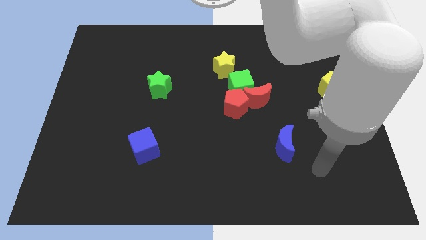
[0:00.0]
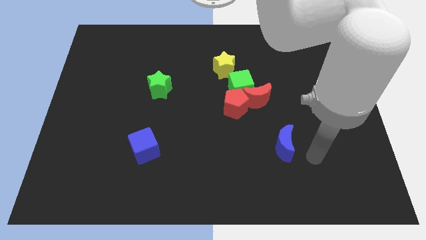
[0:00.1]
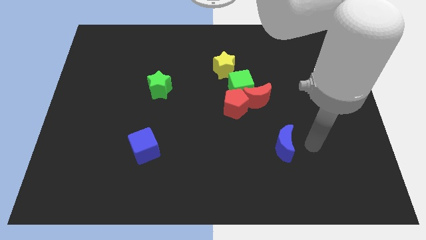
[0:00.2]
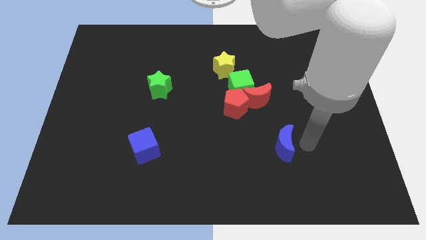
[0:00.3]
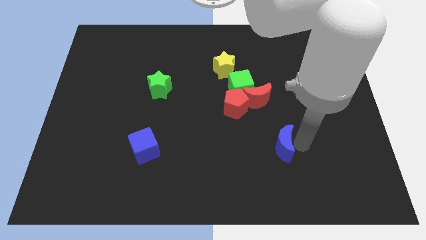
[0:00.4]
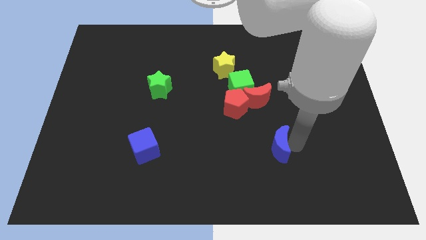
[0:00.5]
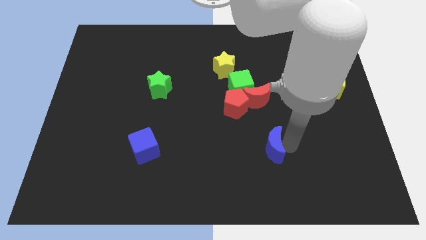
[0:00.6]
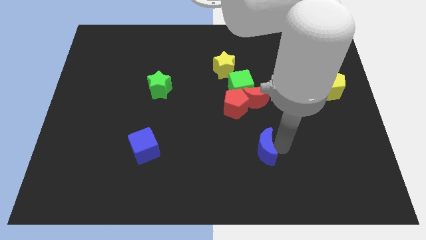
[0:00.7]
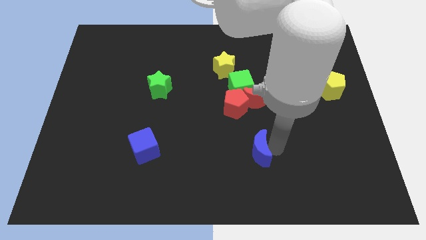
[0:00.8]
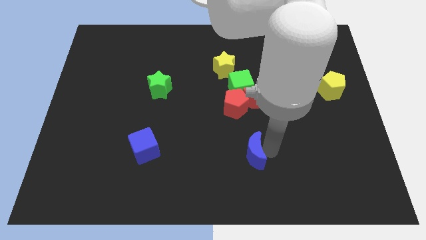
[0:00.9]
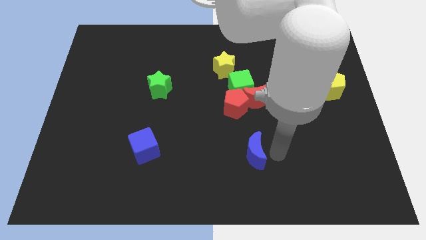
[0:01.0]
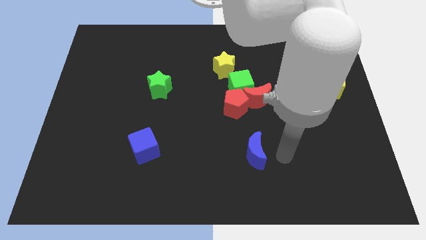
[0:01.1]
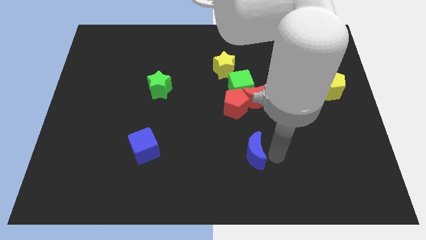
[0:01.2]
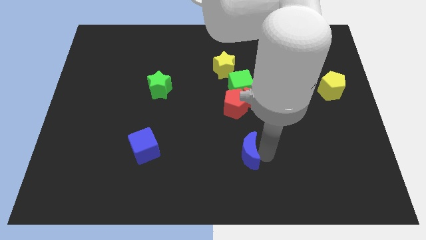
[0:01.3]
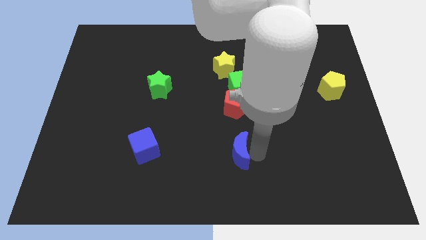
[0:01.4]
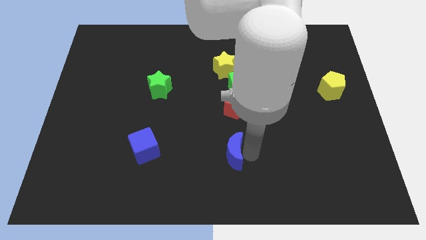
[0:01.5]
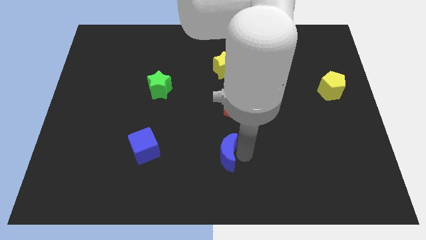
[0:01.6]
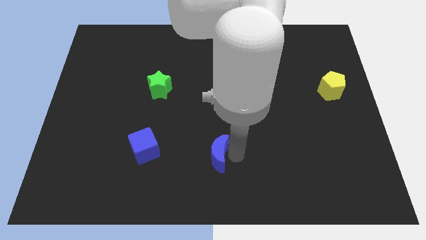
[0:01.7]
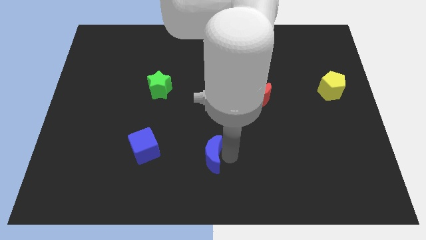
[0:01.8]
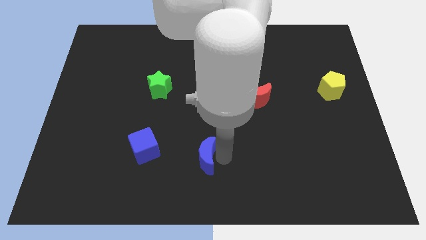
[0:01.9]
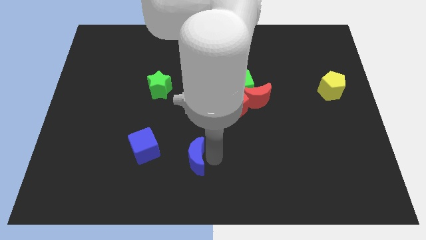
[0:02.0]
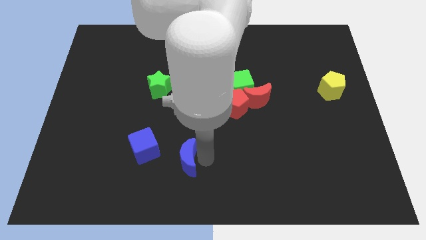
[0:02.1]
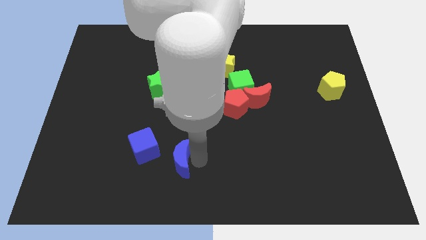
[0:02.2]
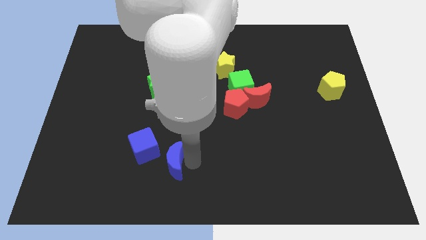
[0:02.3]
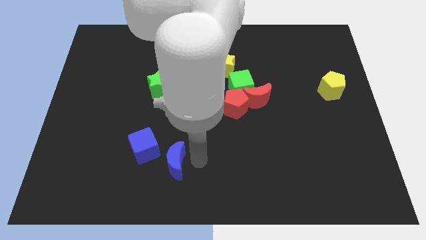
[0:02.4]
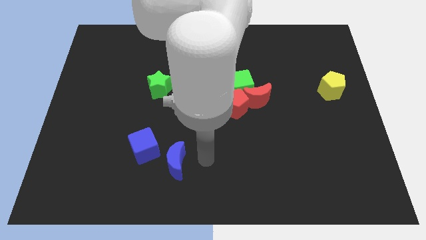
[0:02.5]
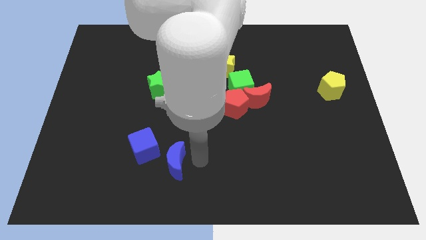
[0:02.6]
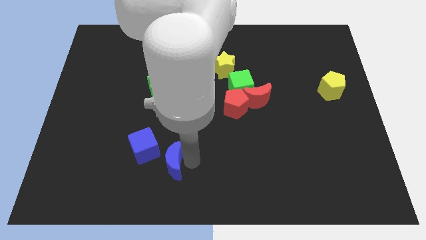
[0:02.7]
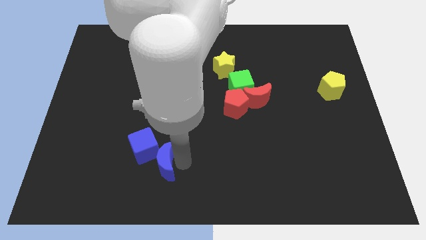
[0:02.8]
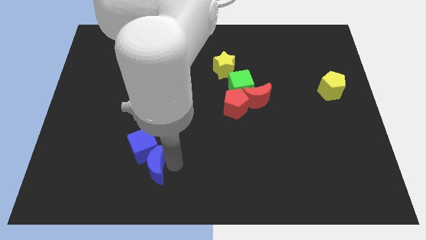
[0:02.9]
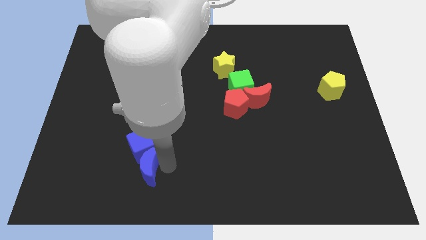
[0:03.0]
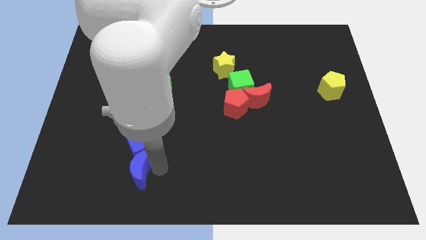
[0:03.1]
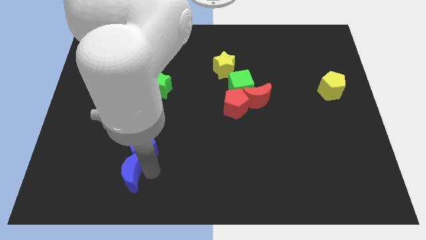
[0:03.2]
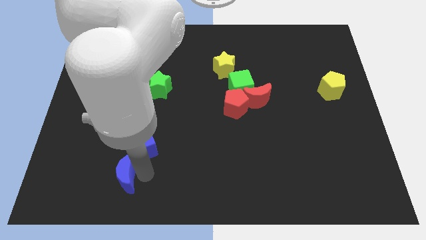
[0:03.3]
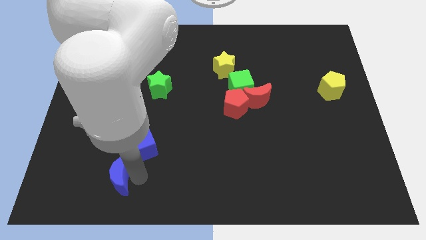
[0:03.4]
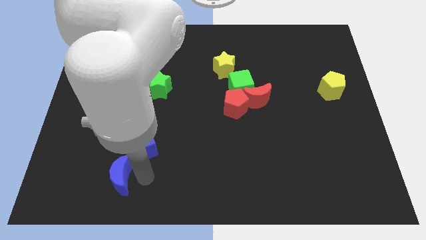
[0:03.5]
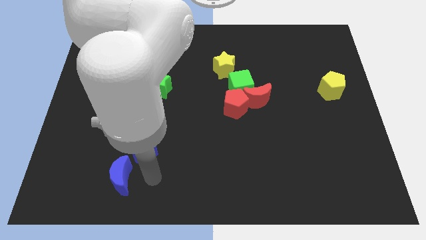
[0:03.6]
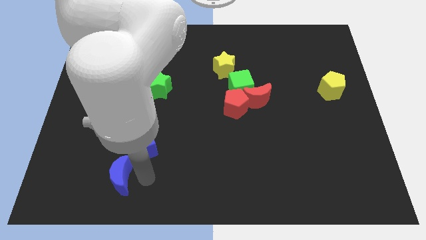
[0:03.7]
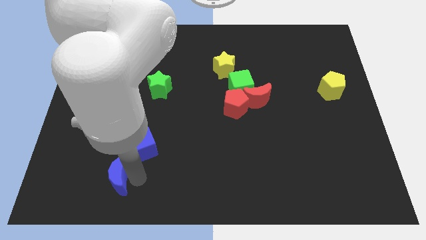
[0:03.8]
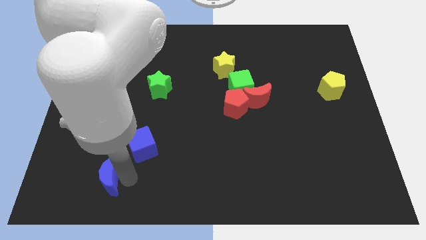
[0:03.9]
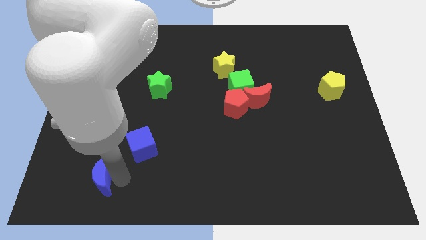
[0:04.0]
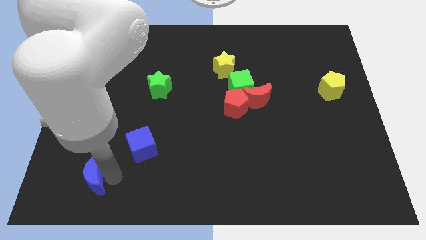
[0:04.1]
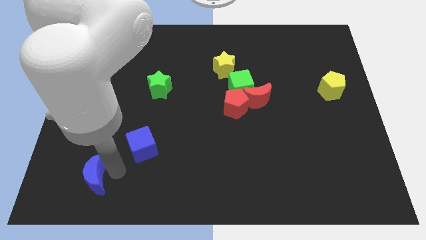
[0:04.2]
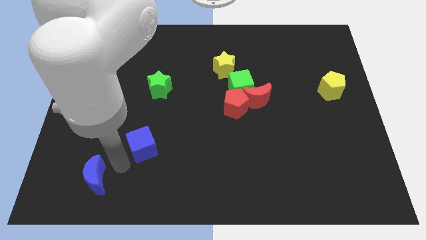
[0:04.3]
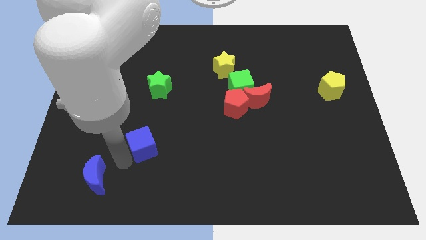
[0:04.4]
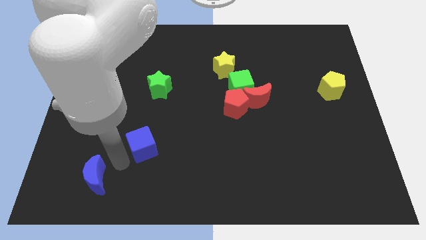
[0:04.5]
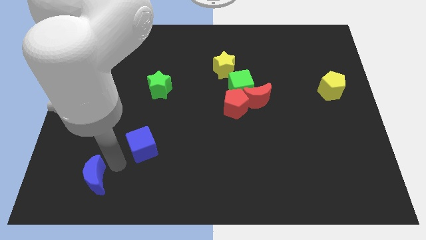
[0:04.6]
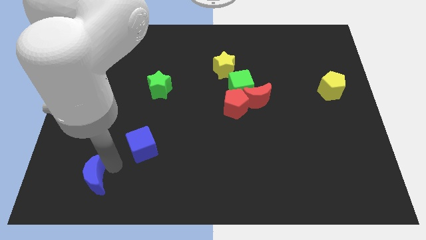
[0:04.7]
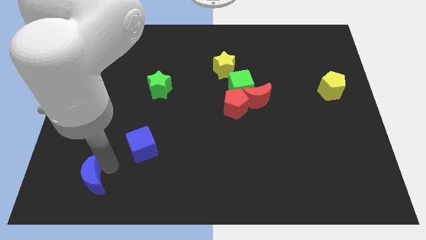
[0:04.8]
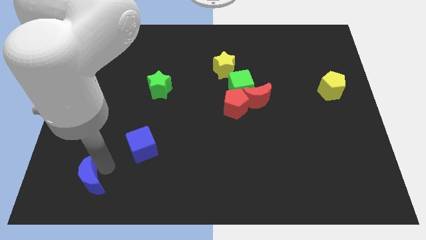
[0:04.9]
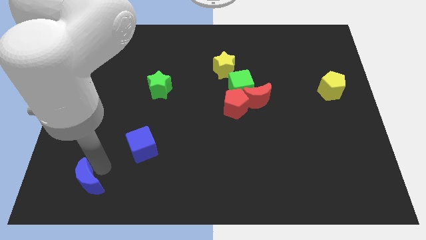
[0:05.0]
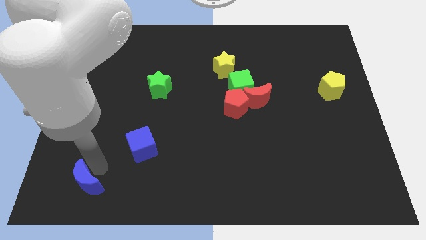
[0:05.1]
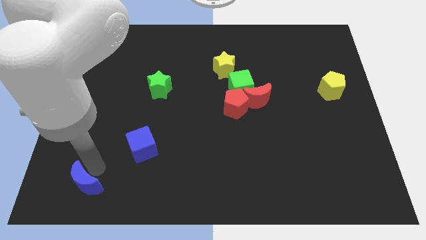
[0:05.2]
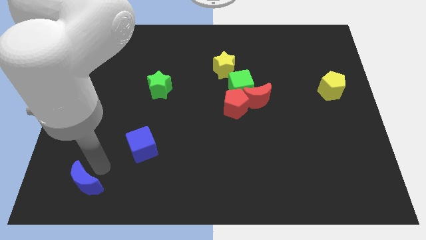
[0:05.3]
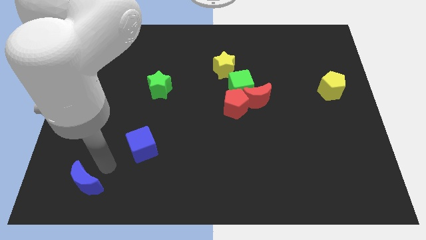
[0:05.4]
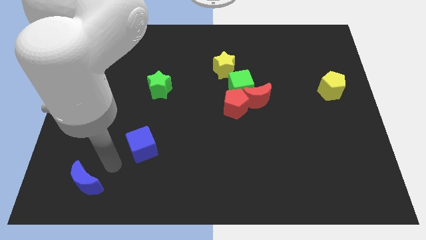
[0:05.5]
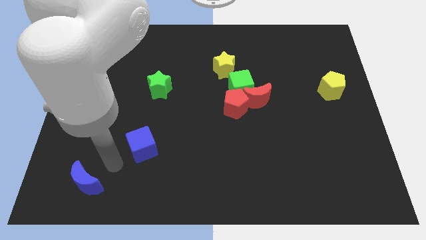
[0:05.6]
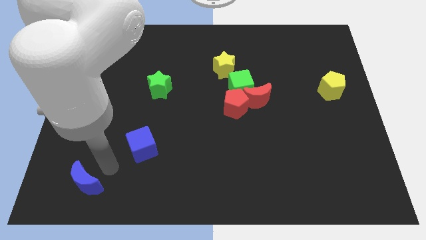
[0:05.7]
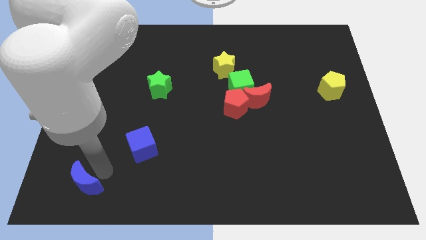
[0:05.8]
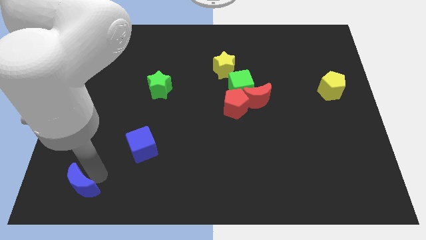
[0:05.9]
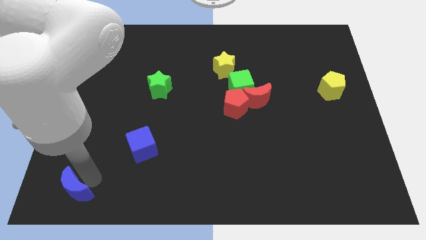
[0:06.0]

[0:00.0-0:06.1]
slide the blue moon to the bottom left

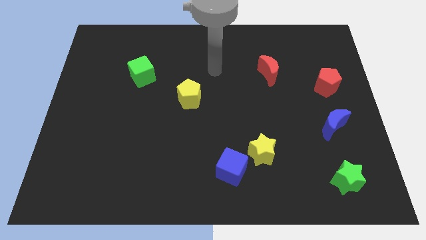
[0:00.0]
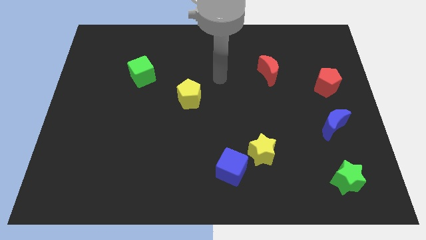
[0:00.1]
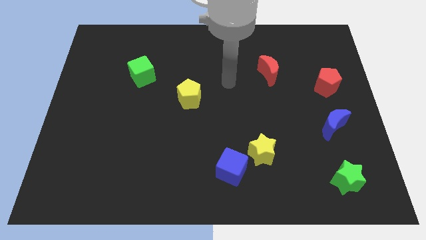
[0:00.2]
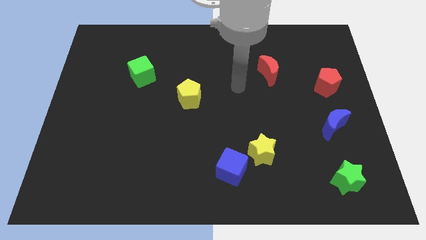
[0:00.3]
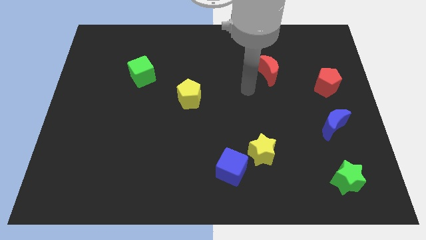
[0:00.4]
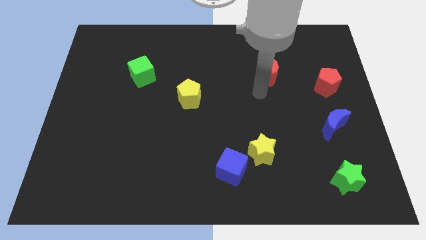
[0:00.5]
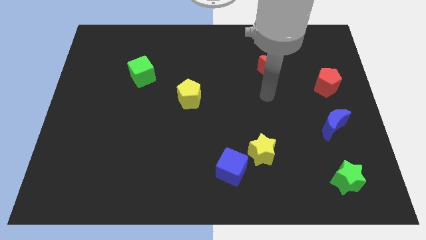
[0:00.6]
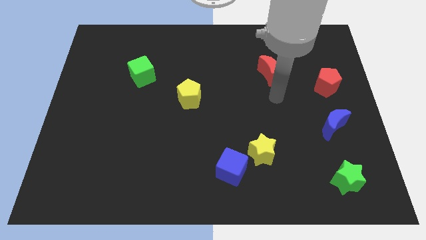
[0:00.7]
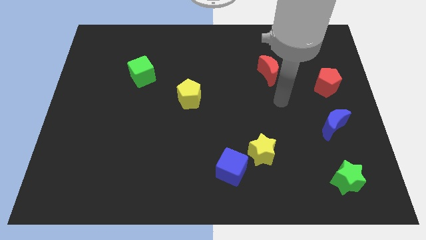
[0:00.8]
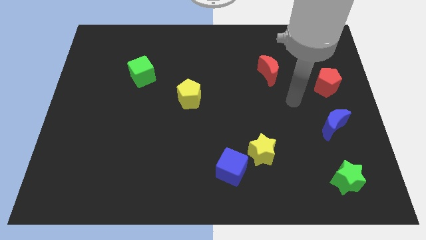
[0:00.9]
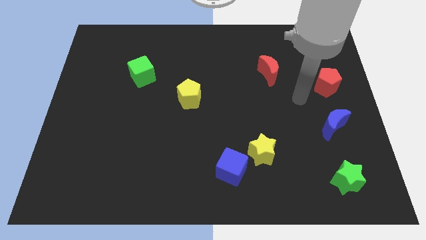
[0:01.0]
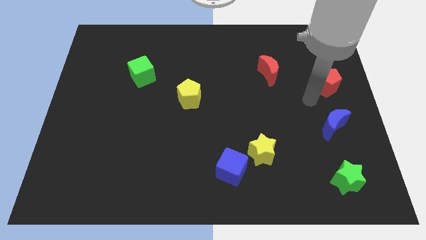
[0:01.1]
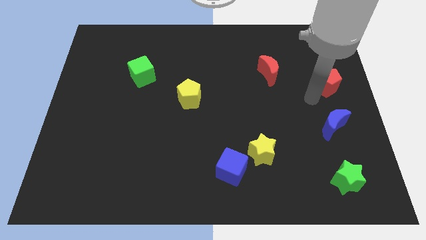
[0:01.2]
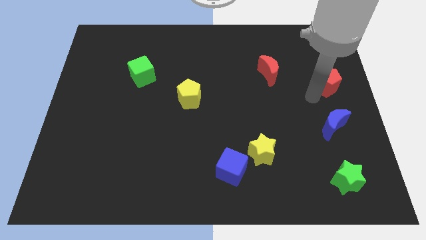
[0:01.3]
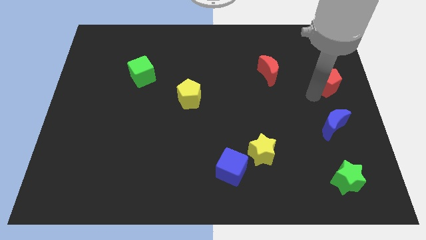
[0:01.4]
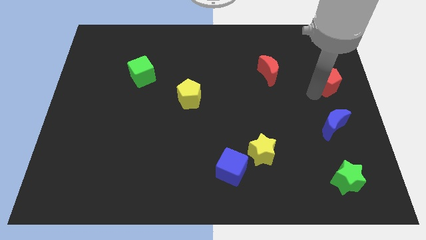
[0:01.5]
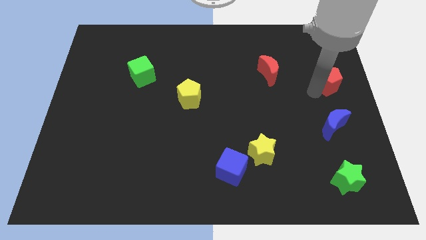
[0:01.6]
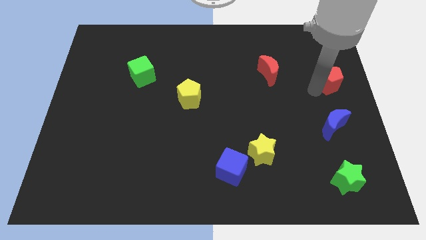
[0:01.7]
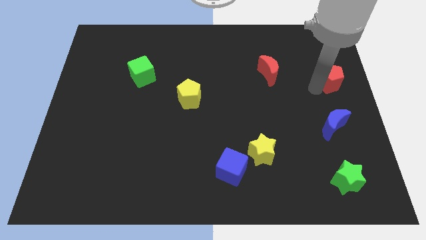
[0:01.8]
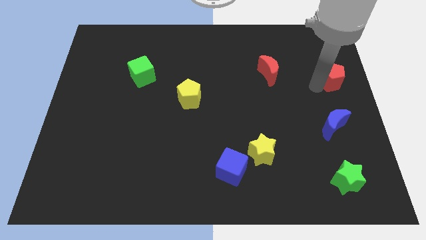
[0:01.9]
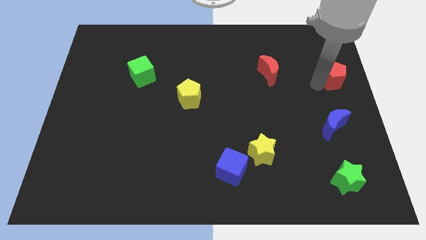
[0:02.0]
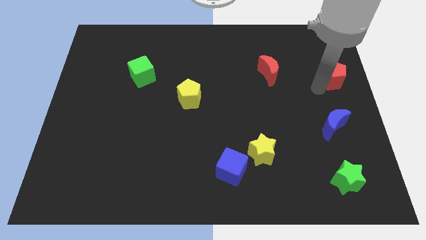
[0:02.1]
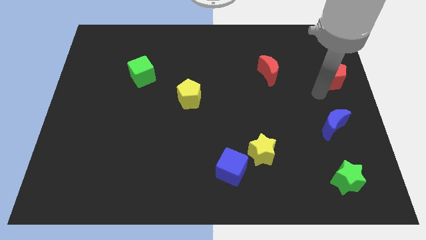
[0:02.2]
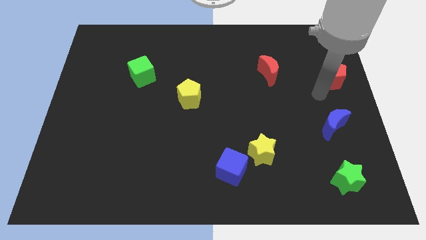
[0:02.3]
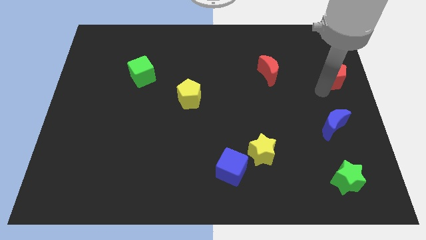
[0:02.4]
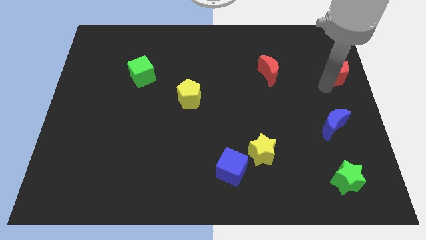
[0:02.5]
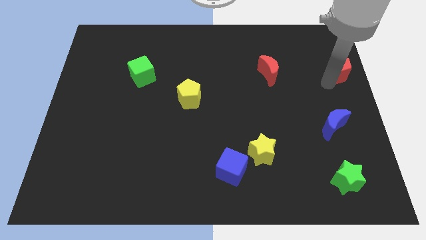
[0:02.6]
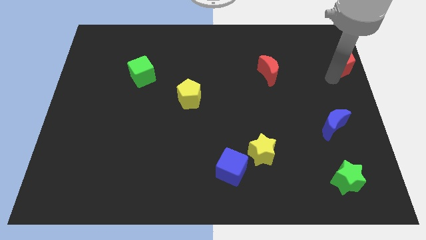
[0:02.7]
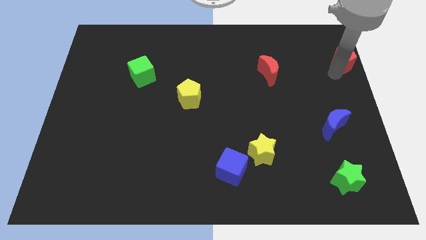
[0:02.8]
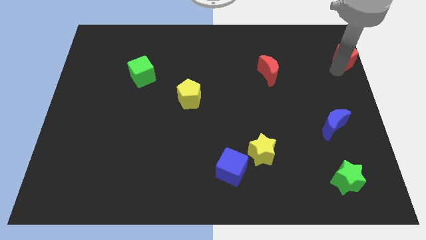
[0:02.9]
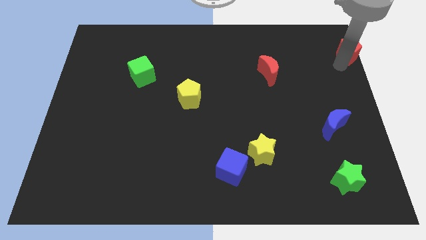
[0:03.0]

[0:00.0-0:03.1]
move the red pentagon to the top right
